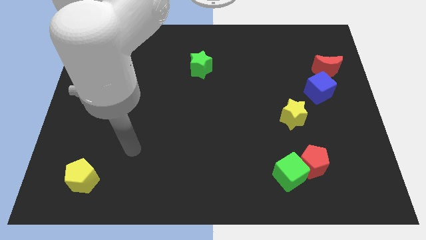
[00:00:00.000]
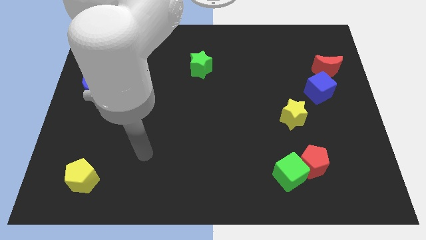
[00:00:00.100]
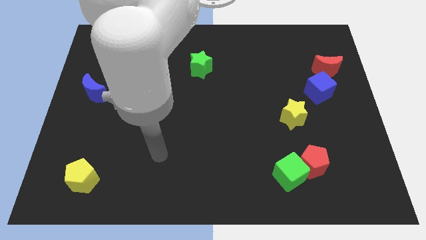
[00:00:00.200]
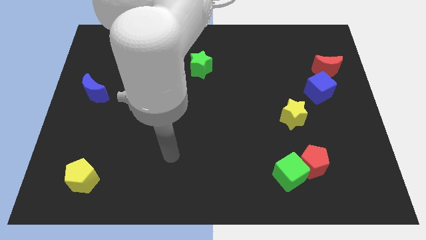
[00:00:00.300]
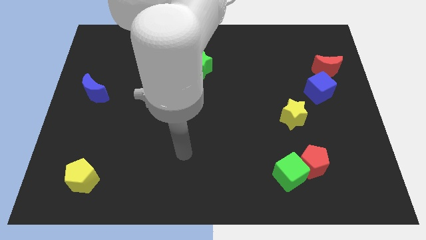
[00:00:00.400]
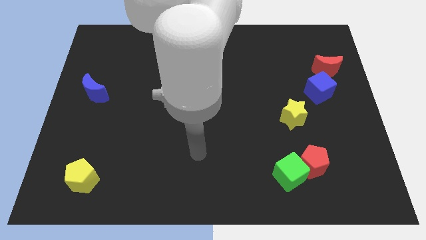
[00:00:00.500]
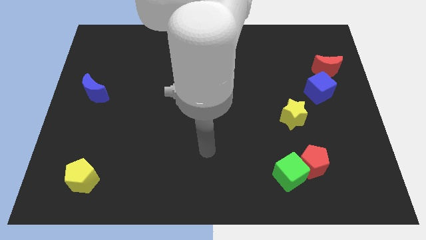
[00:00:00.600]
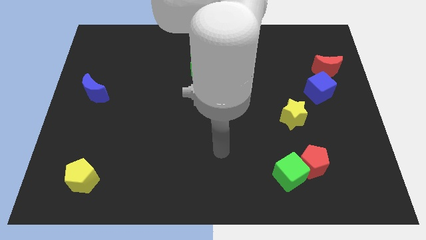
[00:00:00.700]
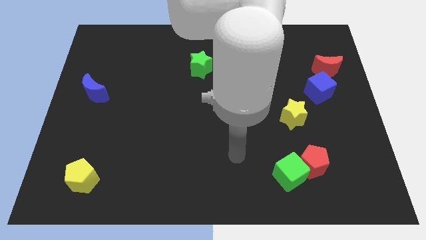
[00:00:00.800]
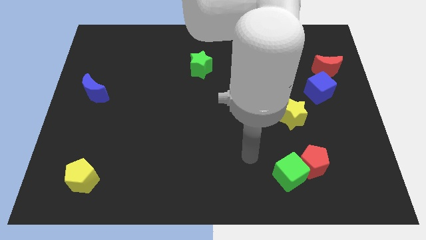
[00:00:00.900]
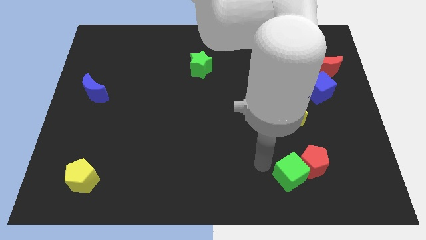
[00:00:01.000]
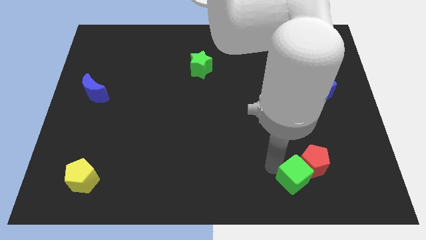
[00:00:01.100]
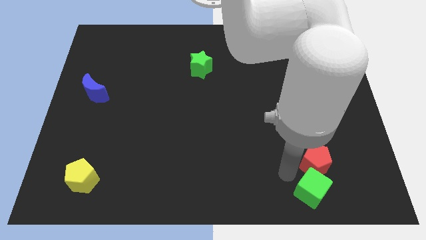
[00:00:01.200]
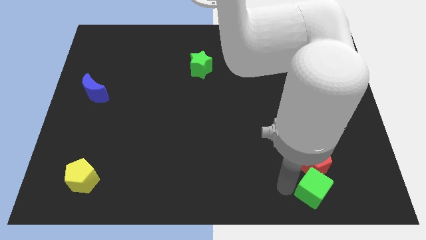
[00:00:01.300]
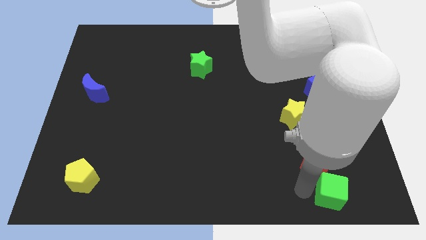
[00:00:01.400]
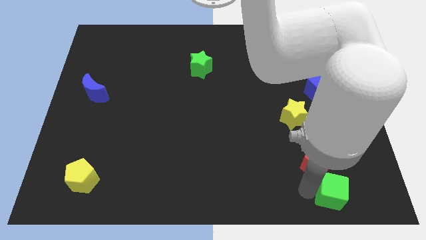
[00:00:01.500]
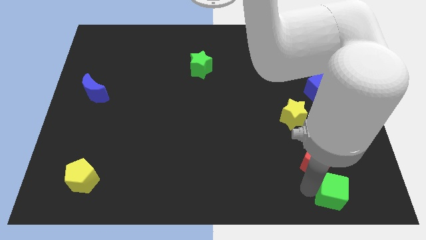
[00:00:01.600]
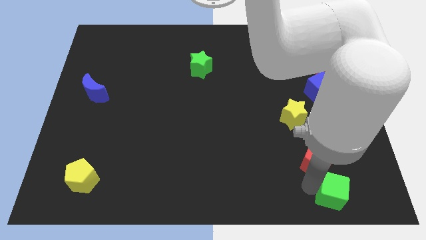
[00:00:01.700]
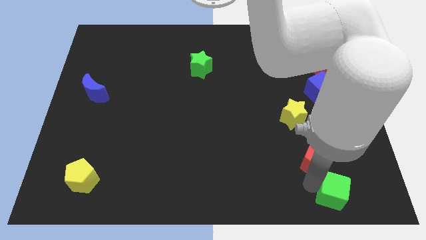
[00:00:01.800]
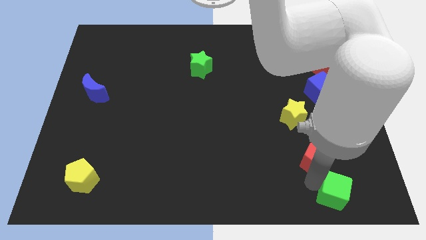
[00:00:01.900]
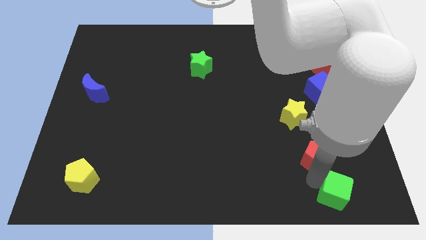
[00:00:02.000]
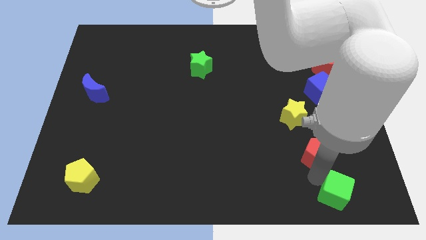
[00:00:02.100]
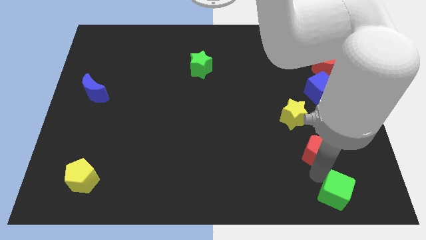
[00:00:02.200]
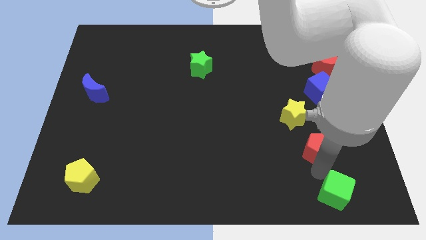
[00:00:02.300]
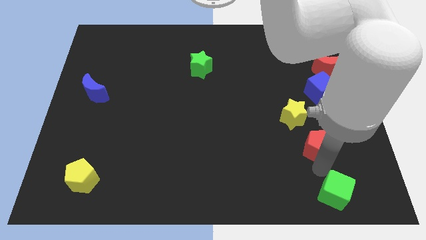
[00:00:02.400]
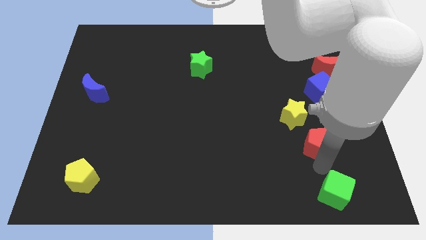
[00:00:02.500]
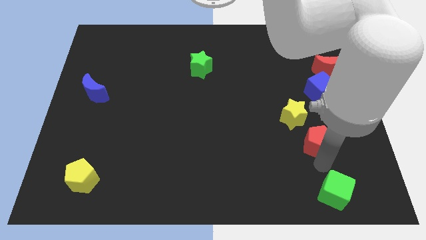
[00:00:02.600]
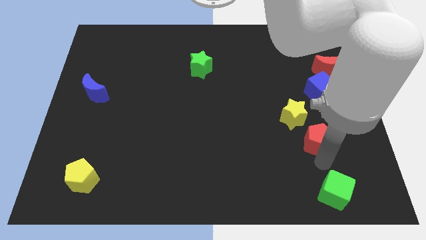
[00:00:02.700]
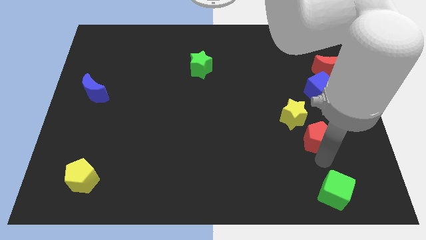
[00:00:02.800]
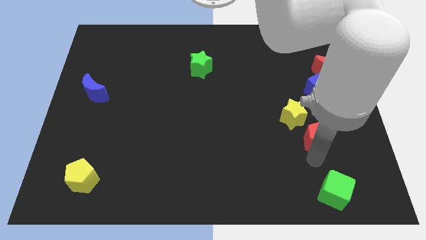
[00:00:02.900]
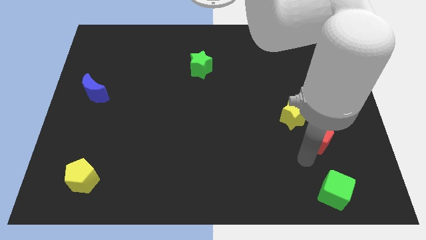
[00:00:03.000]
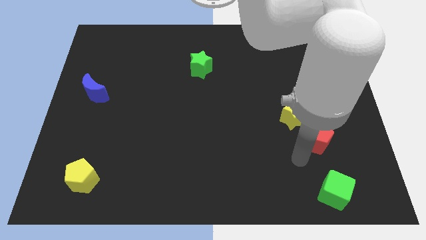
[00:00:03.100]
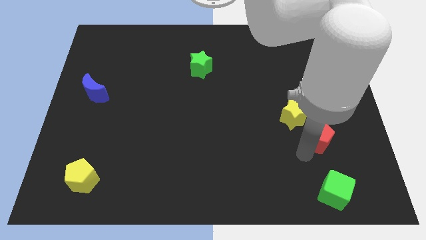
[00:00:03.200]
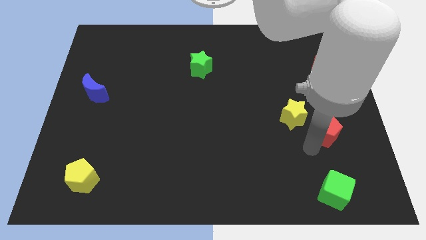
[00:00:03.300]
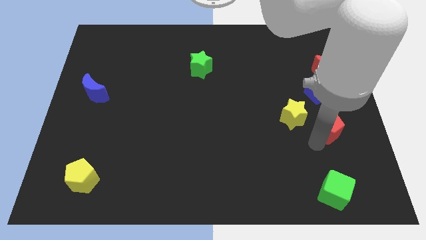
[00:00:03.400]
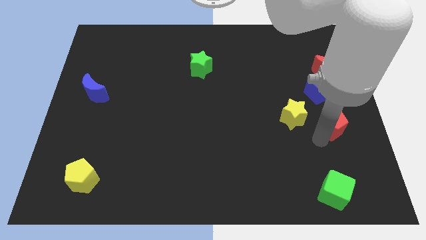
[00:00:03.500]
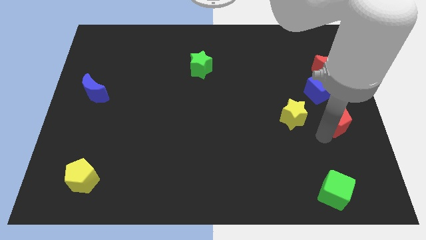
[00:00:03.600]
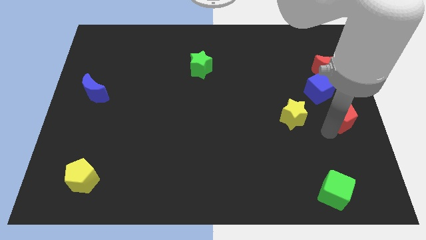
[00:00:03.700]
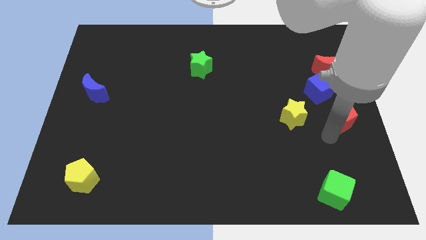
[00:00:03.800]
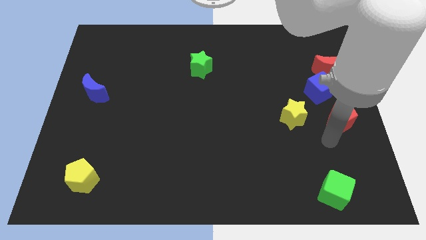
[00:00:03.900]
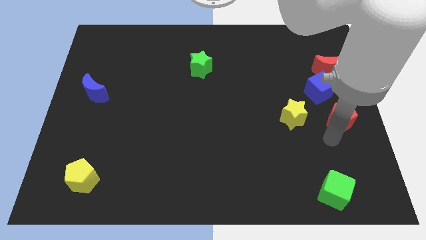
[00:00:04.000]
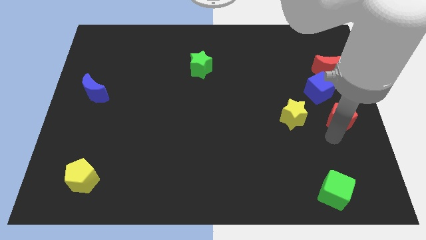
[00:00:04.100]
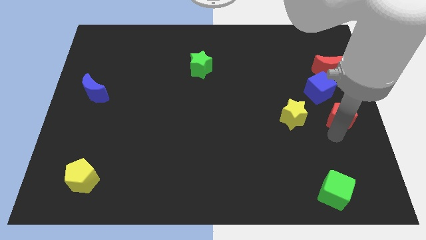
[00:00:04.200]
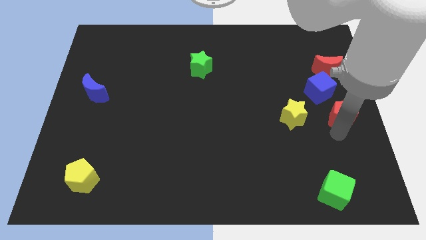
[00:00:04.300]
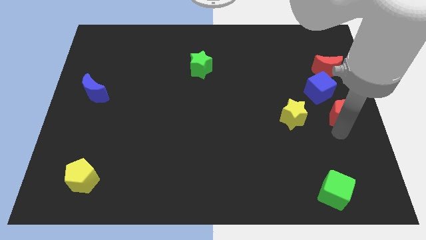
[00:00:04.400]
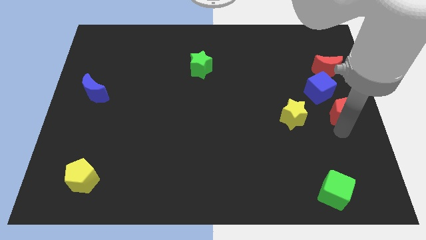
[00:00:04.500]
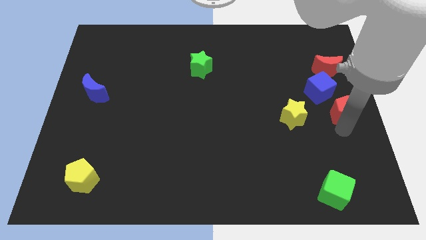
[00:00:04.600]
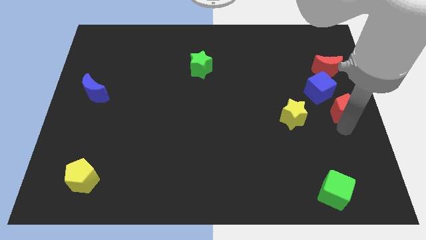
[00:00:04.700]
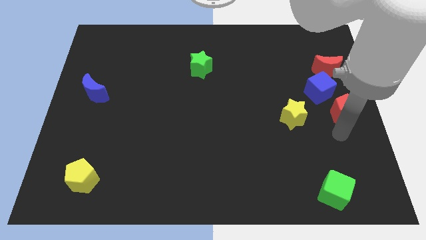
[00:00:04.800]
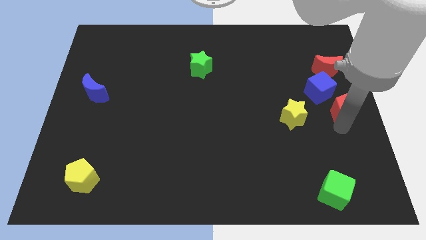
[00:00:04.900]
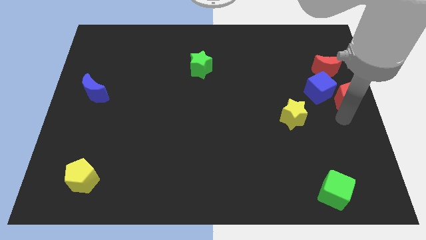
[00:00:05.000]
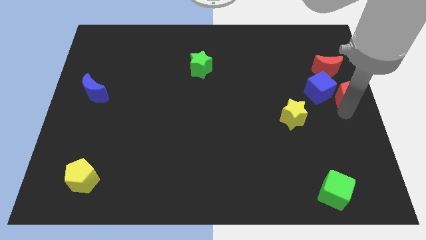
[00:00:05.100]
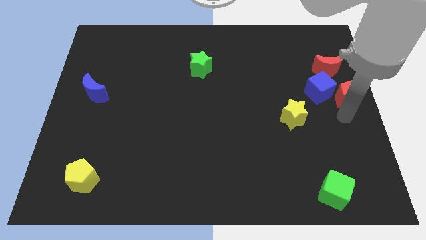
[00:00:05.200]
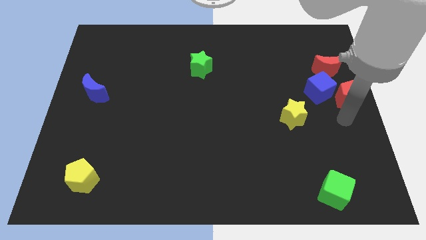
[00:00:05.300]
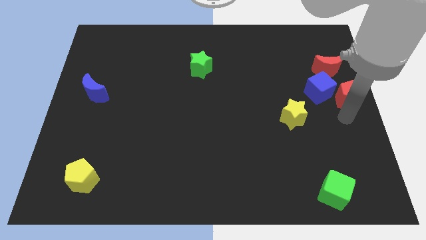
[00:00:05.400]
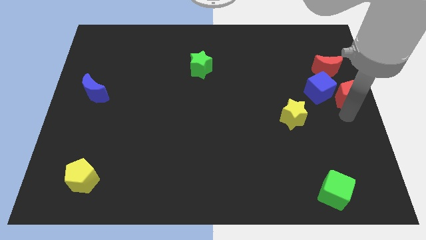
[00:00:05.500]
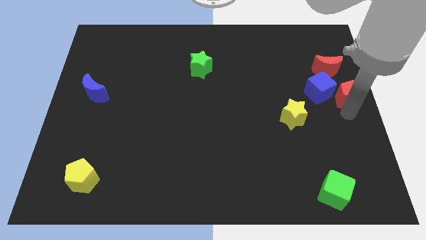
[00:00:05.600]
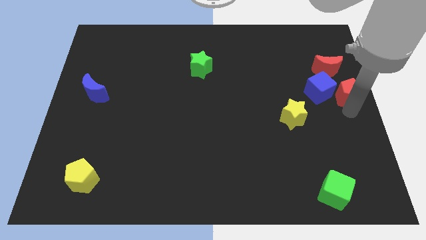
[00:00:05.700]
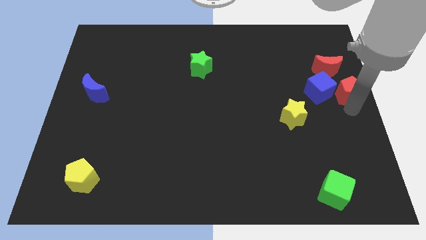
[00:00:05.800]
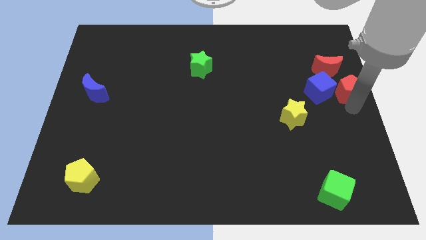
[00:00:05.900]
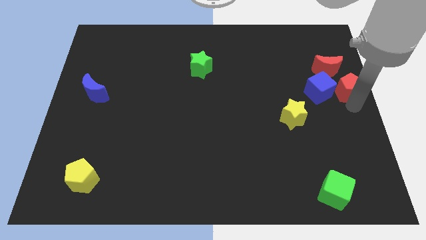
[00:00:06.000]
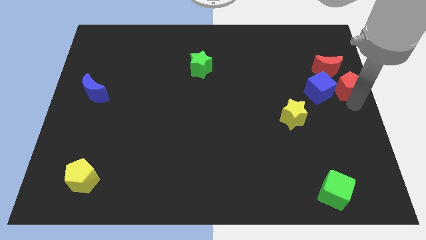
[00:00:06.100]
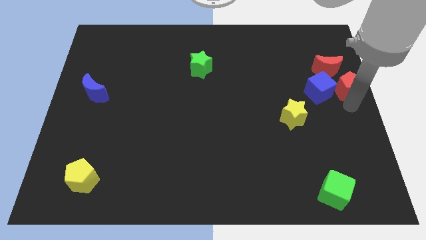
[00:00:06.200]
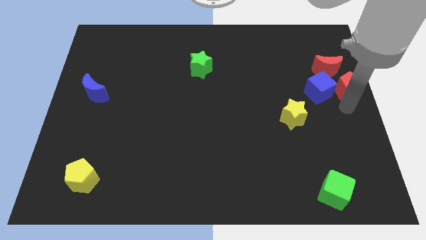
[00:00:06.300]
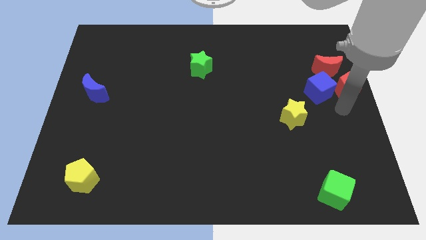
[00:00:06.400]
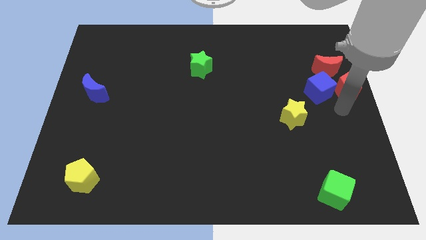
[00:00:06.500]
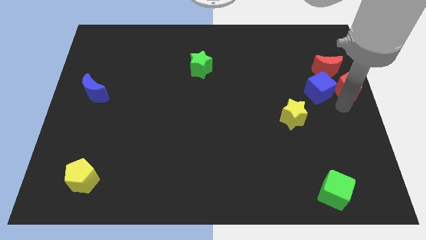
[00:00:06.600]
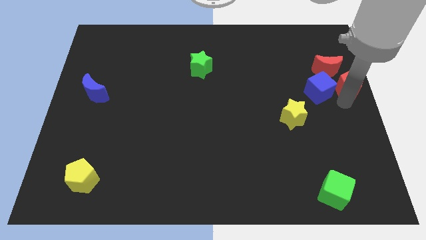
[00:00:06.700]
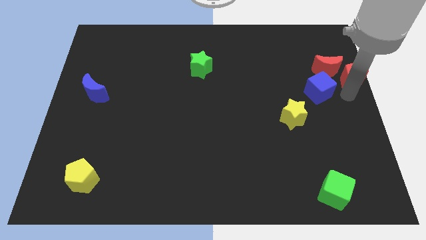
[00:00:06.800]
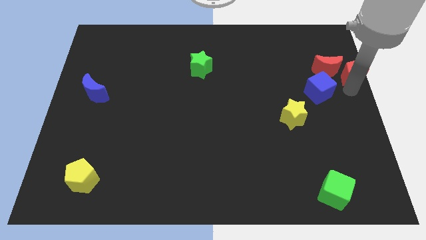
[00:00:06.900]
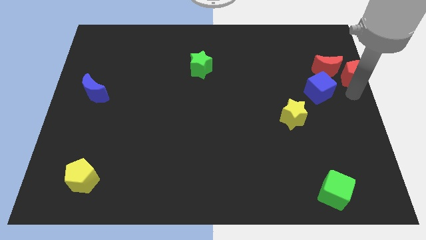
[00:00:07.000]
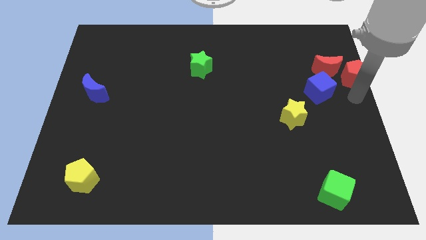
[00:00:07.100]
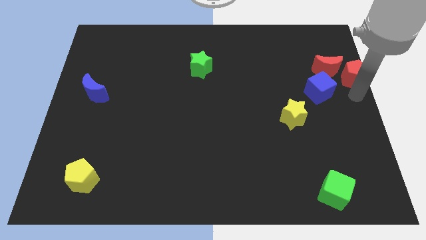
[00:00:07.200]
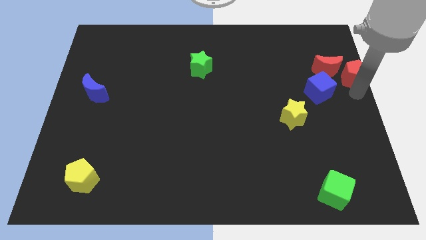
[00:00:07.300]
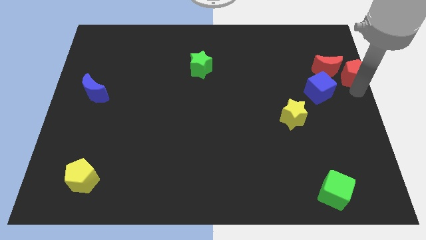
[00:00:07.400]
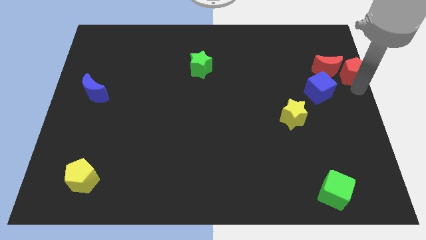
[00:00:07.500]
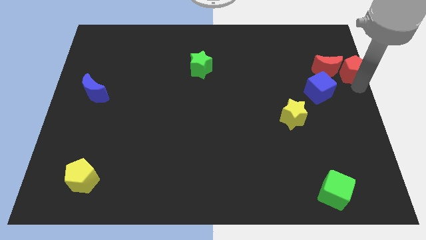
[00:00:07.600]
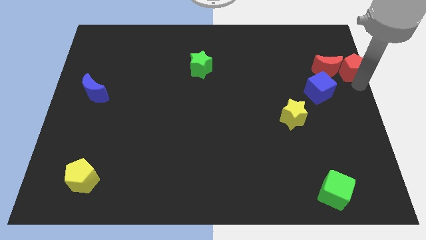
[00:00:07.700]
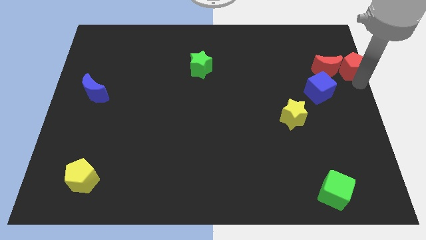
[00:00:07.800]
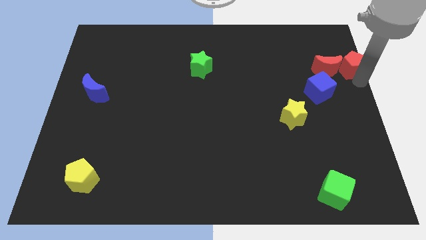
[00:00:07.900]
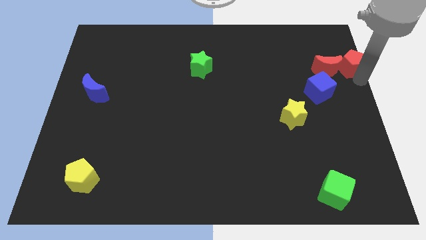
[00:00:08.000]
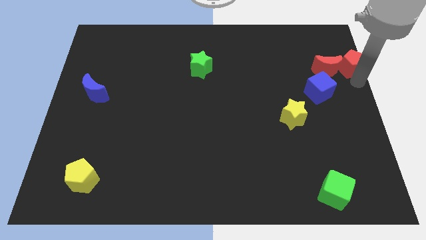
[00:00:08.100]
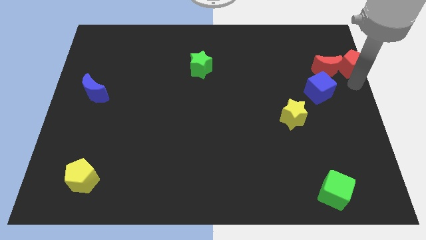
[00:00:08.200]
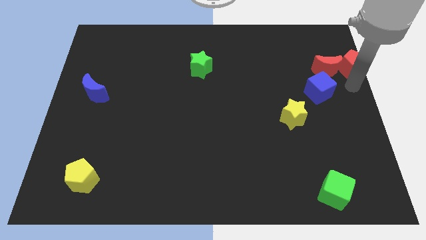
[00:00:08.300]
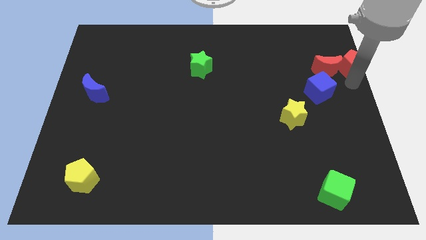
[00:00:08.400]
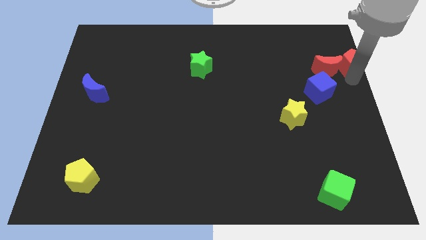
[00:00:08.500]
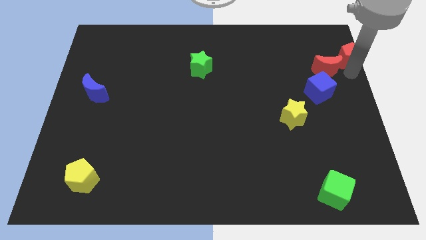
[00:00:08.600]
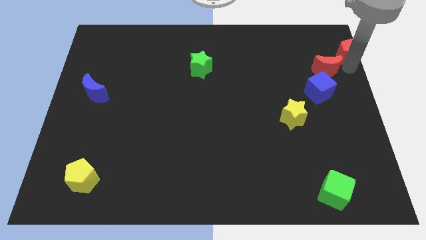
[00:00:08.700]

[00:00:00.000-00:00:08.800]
put the red pentagon to the top right corner
